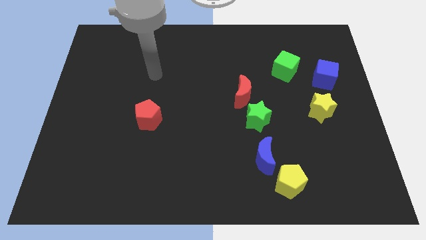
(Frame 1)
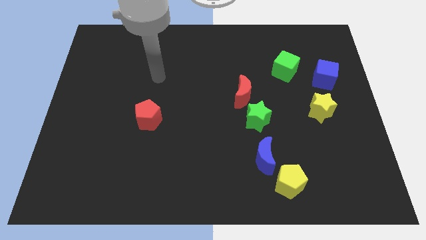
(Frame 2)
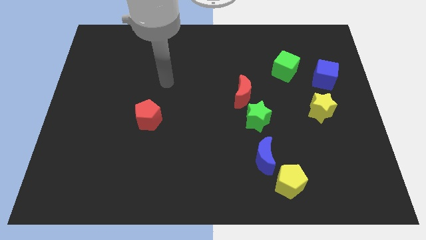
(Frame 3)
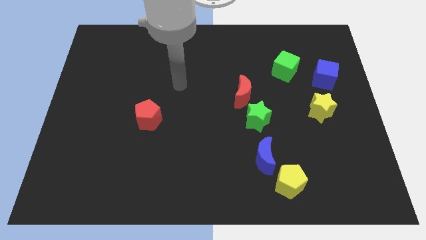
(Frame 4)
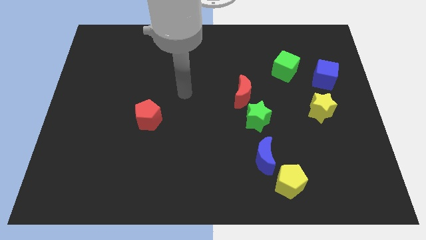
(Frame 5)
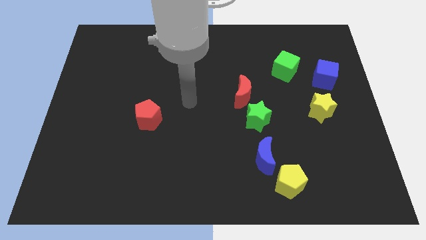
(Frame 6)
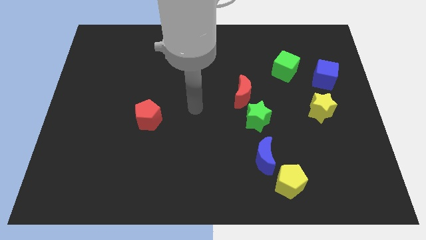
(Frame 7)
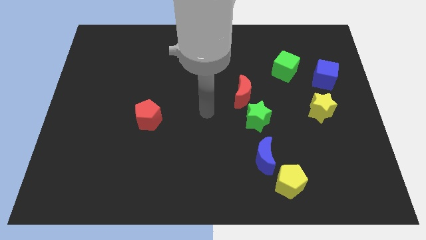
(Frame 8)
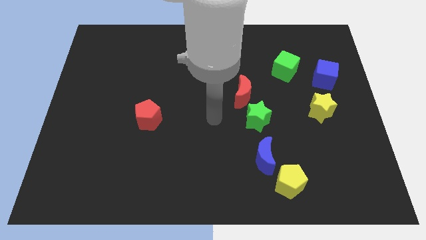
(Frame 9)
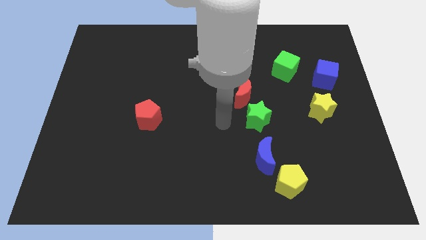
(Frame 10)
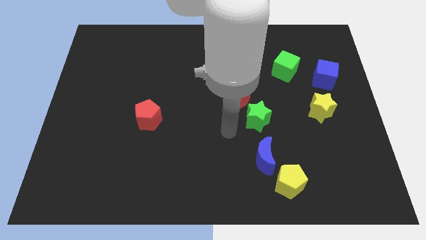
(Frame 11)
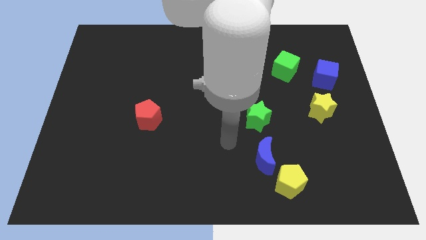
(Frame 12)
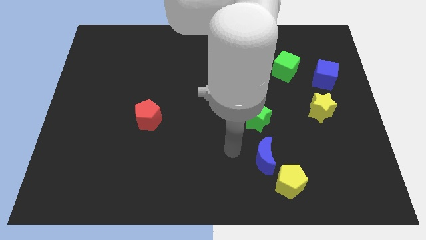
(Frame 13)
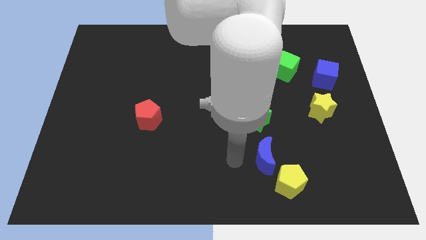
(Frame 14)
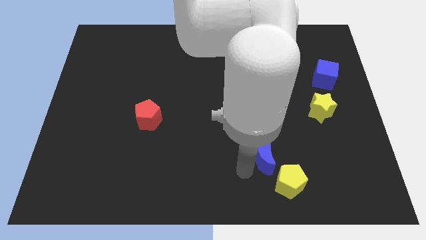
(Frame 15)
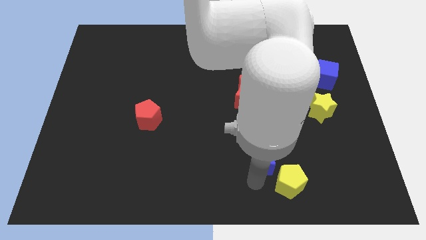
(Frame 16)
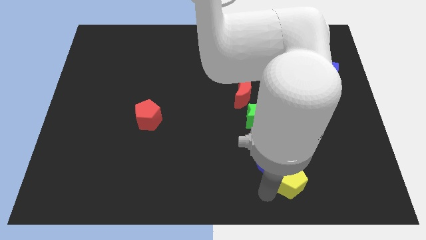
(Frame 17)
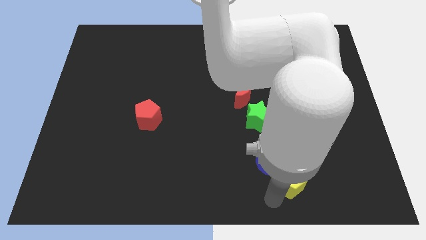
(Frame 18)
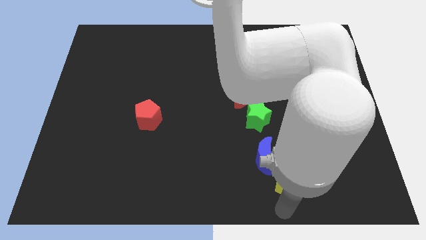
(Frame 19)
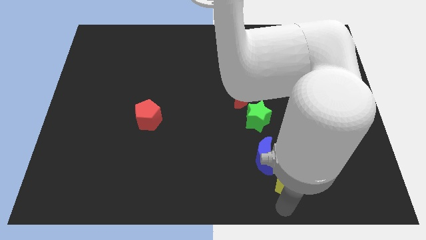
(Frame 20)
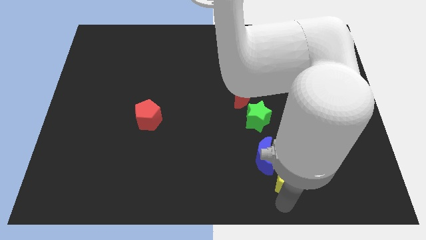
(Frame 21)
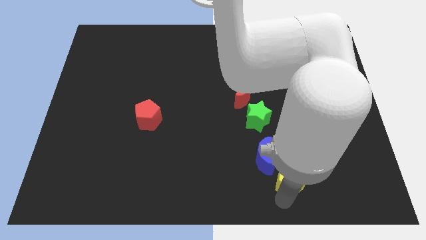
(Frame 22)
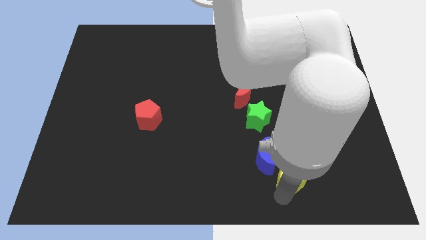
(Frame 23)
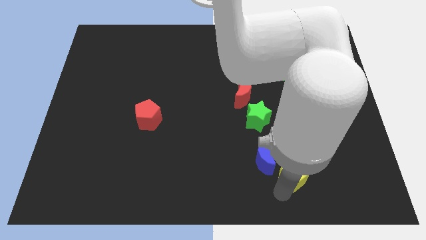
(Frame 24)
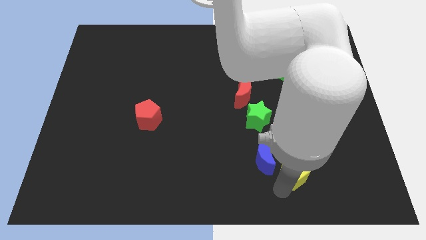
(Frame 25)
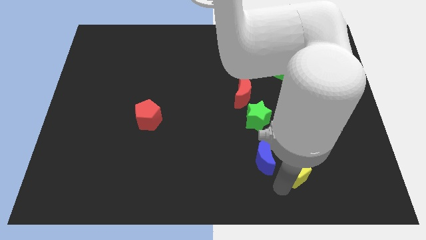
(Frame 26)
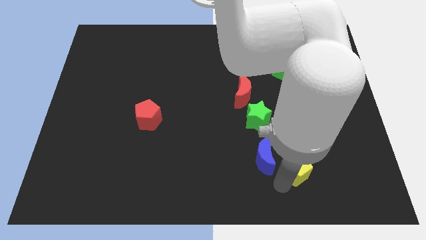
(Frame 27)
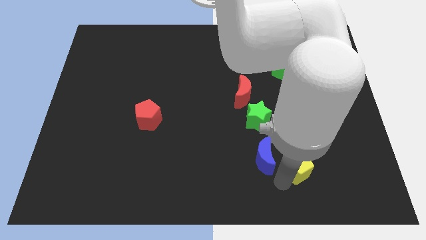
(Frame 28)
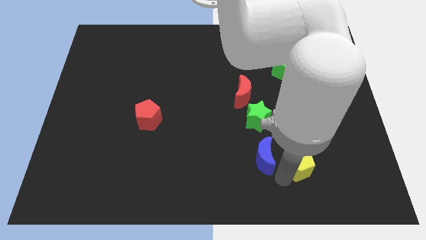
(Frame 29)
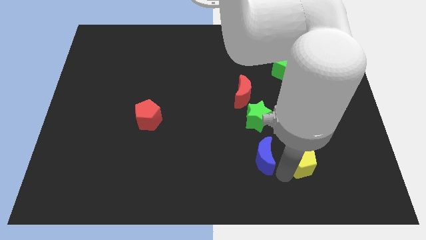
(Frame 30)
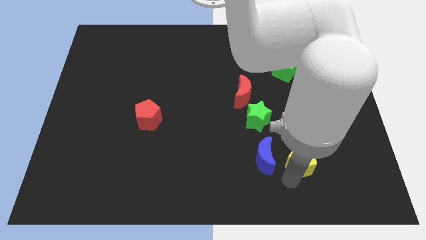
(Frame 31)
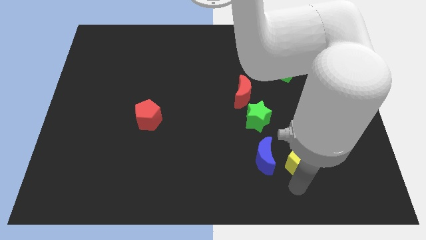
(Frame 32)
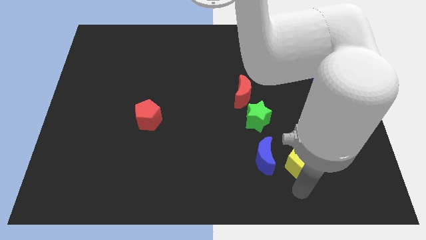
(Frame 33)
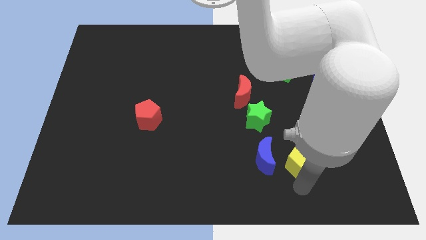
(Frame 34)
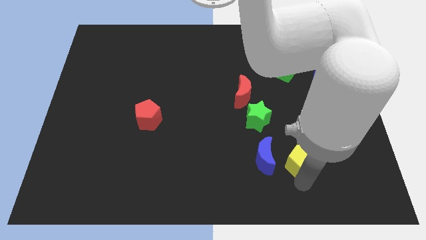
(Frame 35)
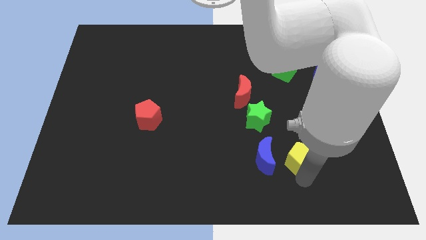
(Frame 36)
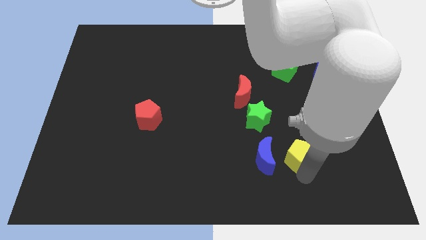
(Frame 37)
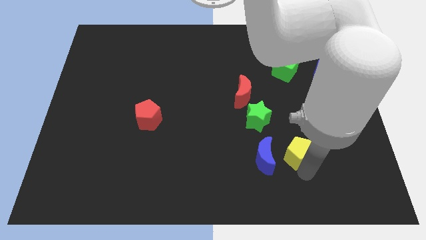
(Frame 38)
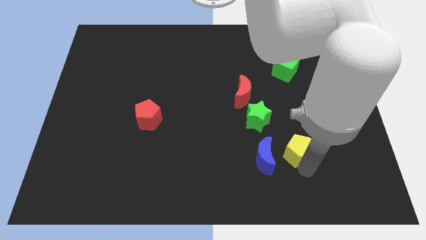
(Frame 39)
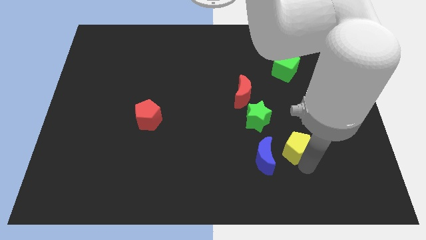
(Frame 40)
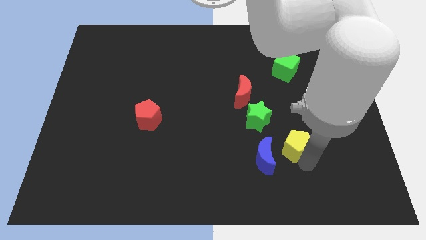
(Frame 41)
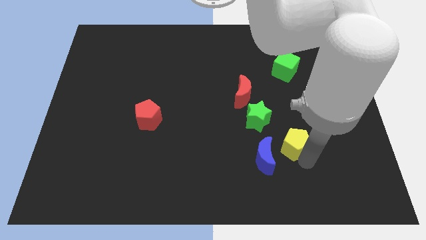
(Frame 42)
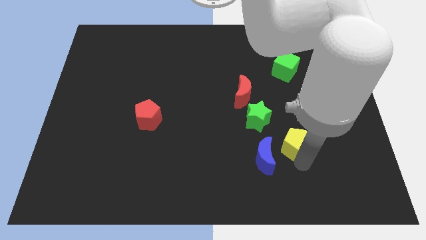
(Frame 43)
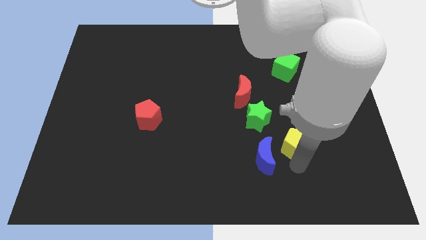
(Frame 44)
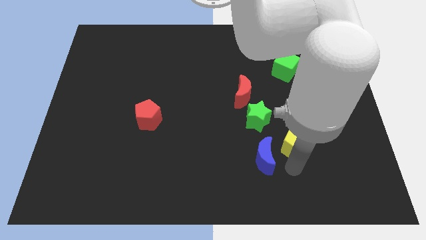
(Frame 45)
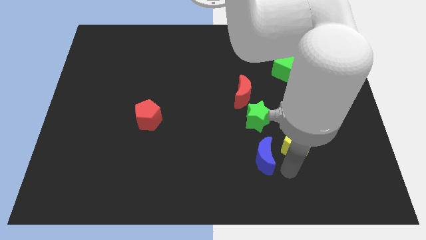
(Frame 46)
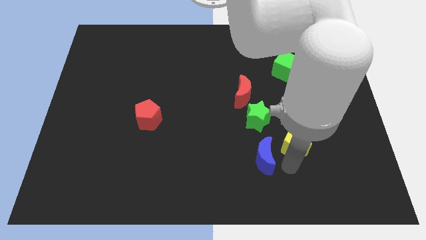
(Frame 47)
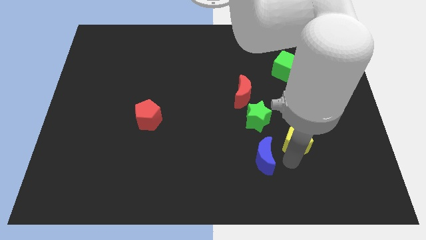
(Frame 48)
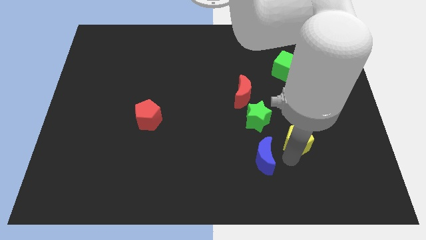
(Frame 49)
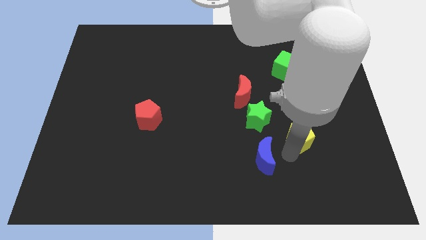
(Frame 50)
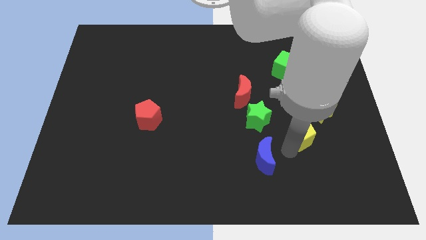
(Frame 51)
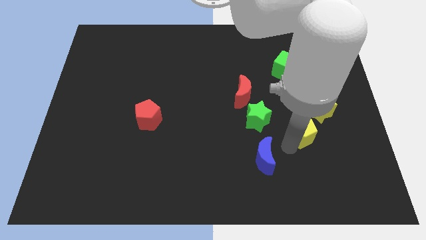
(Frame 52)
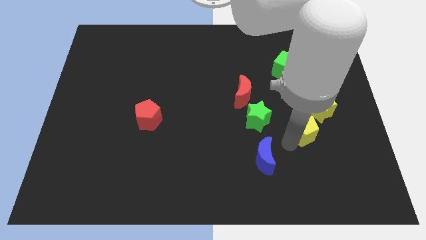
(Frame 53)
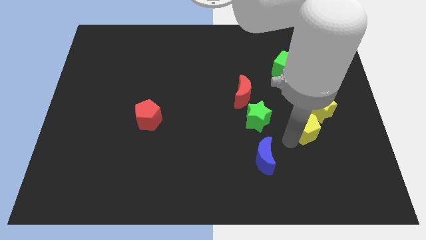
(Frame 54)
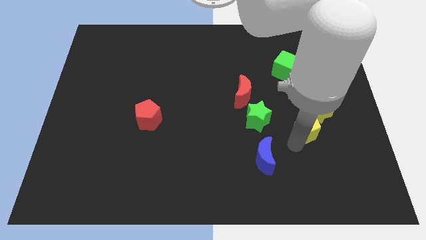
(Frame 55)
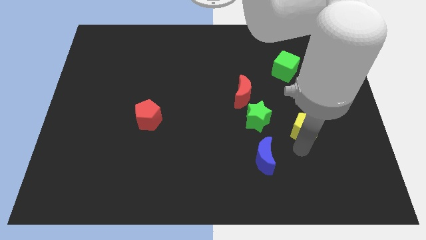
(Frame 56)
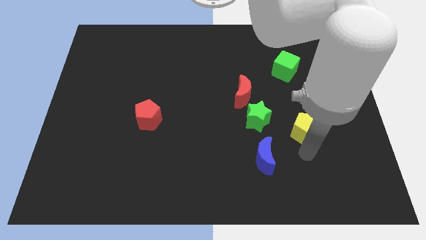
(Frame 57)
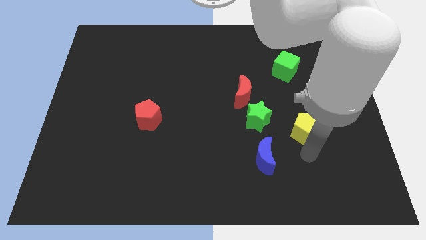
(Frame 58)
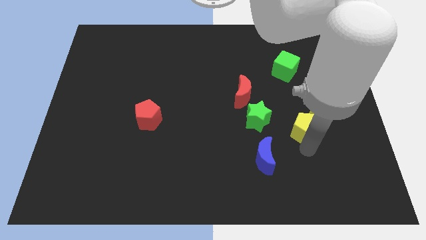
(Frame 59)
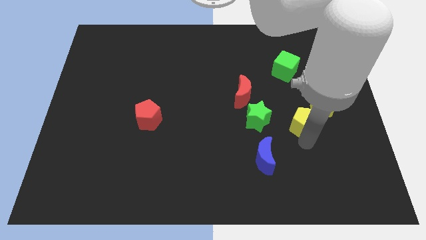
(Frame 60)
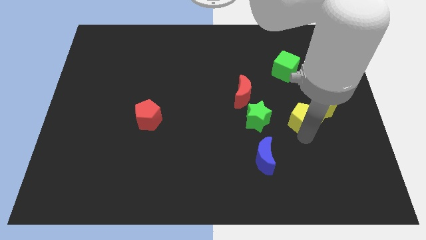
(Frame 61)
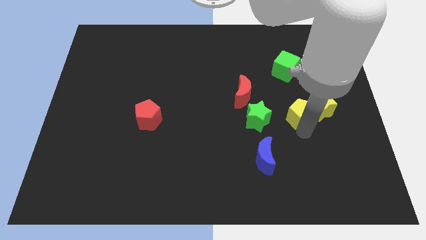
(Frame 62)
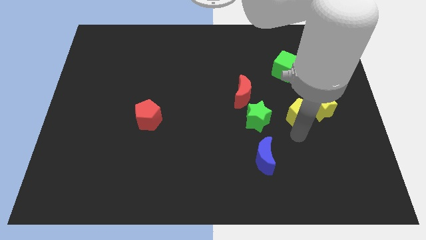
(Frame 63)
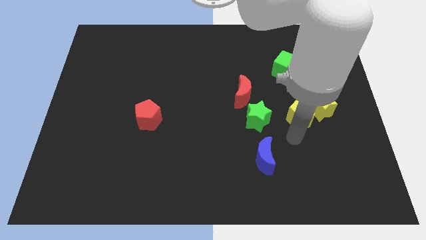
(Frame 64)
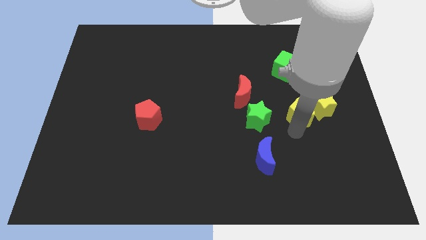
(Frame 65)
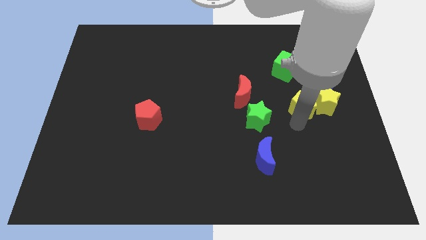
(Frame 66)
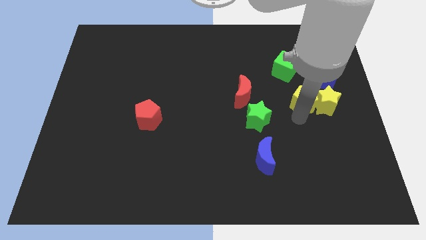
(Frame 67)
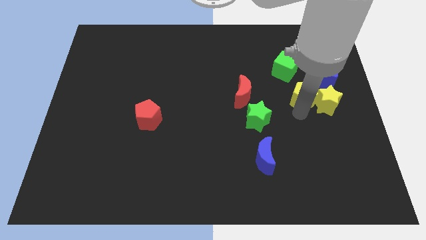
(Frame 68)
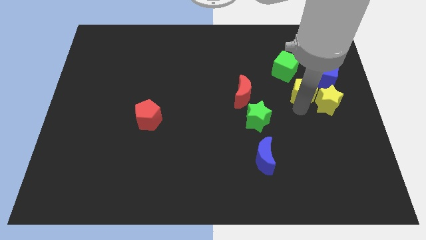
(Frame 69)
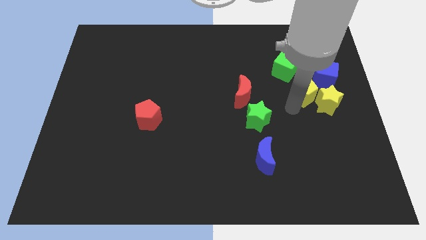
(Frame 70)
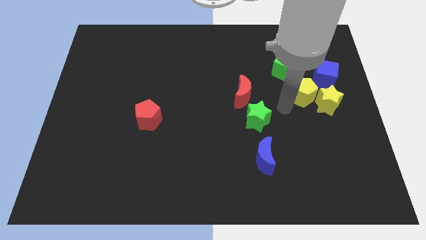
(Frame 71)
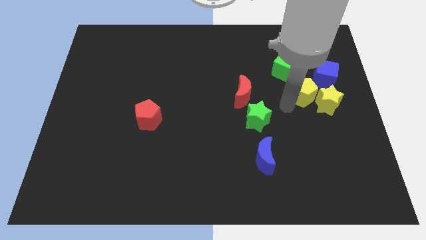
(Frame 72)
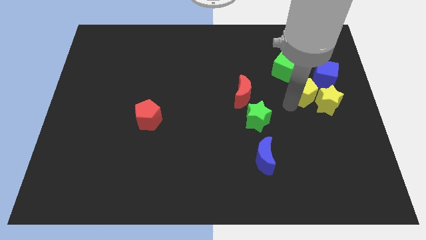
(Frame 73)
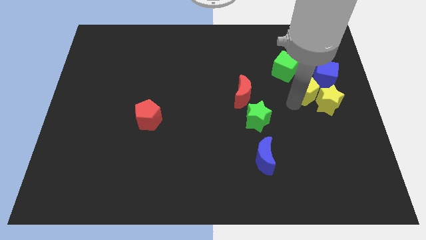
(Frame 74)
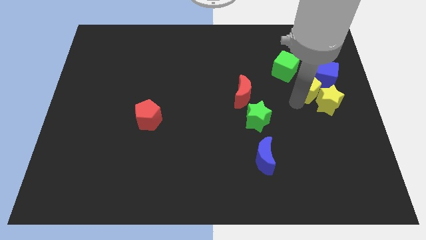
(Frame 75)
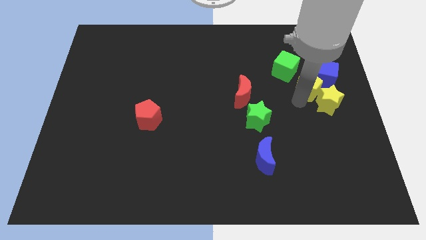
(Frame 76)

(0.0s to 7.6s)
slide the yellow pentagon close to the blue cube

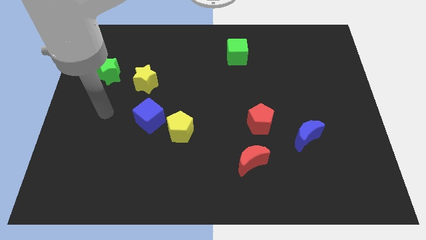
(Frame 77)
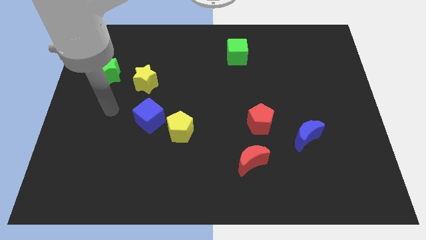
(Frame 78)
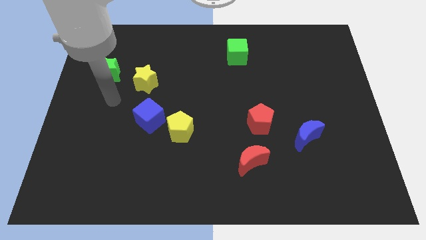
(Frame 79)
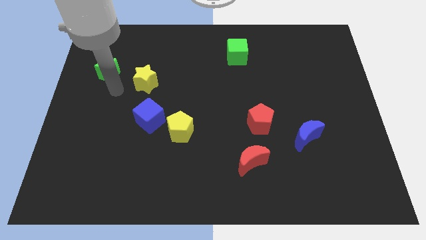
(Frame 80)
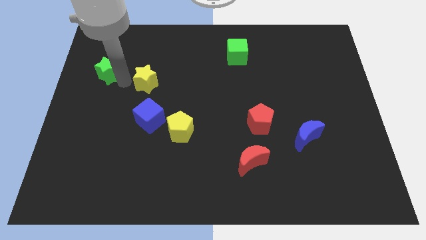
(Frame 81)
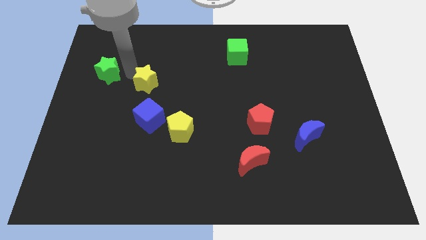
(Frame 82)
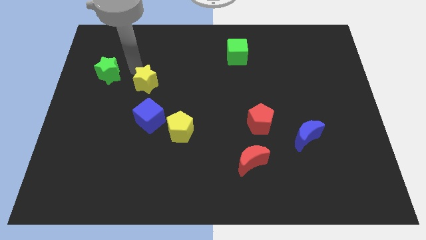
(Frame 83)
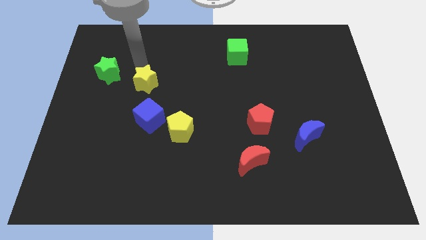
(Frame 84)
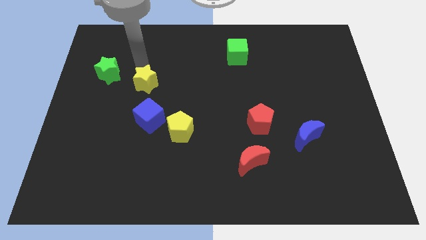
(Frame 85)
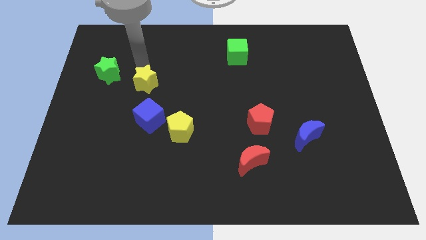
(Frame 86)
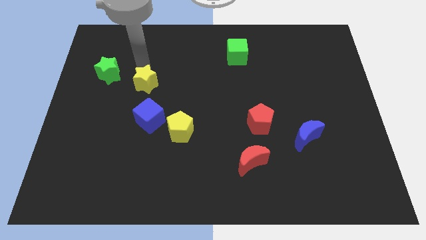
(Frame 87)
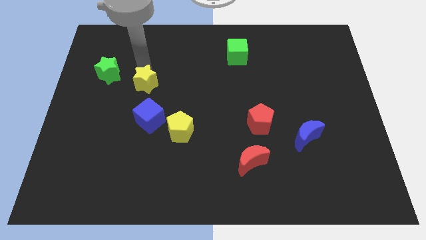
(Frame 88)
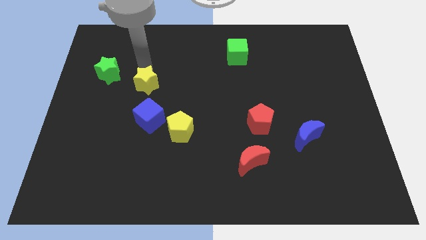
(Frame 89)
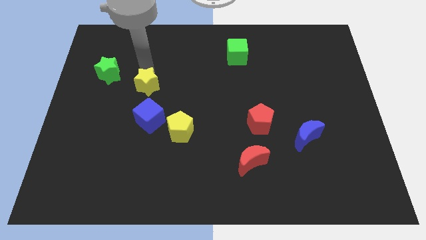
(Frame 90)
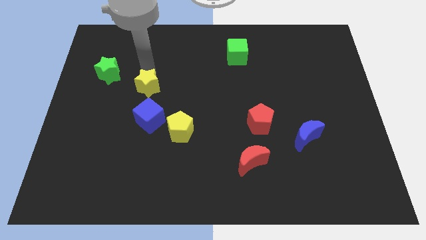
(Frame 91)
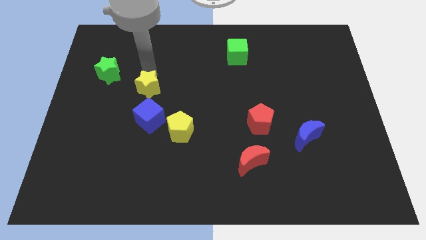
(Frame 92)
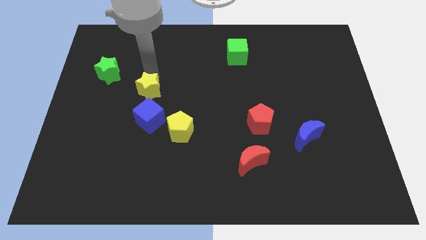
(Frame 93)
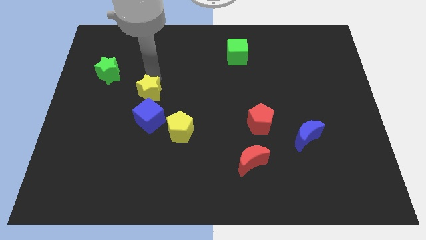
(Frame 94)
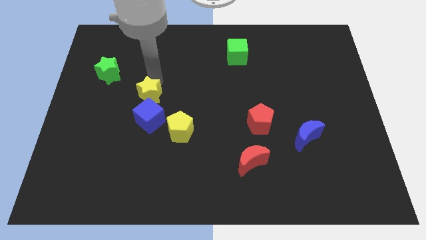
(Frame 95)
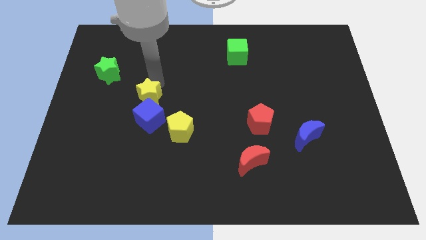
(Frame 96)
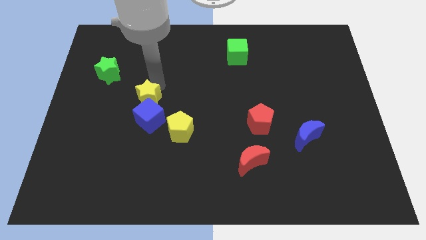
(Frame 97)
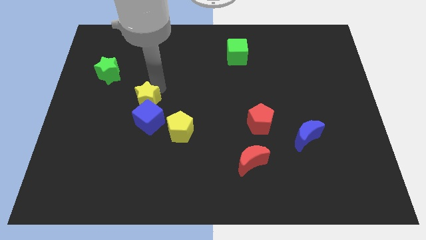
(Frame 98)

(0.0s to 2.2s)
slide the yellow star to the blue cube
